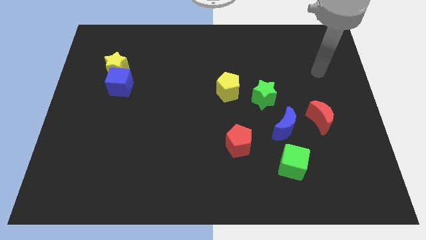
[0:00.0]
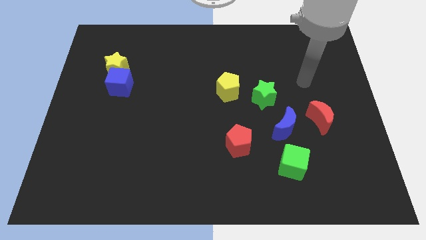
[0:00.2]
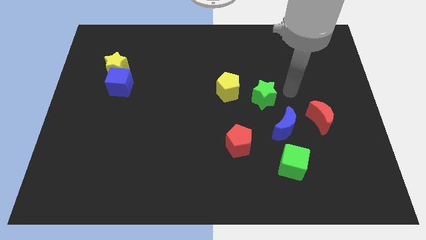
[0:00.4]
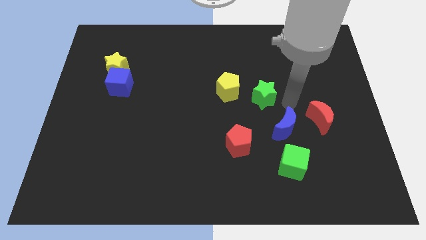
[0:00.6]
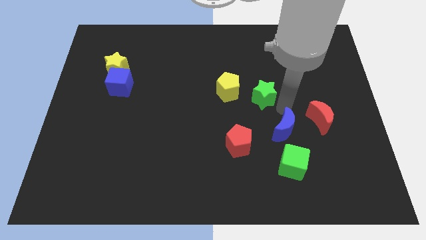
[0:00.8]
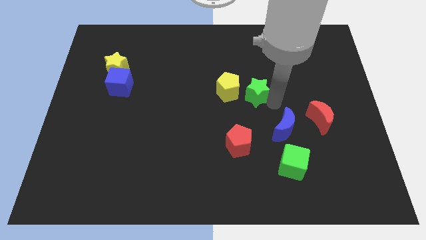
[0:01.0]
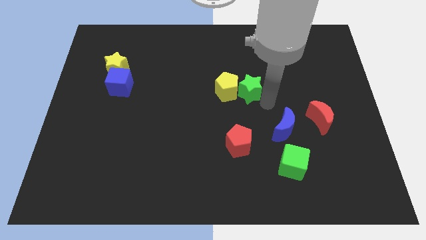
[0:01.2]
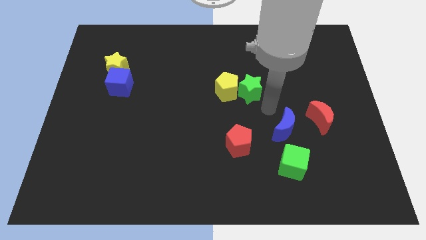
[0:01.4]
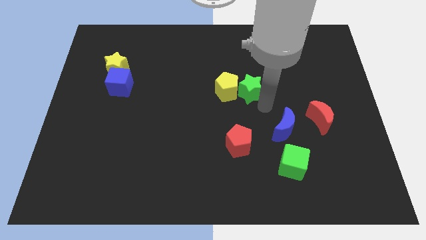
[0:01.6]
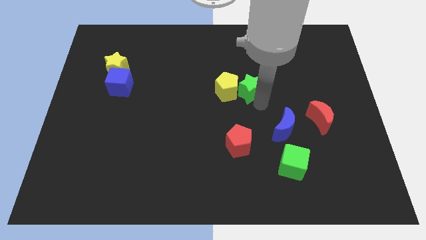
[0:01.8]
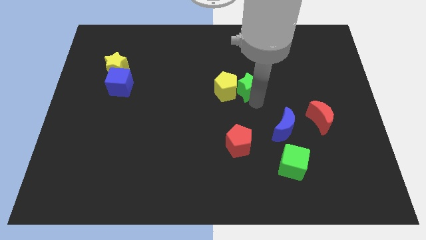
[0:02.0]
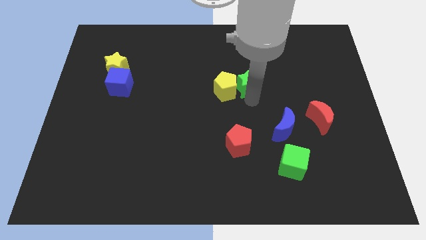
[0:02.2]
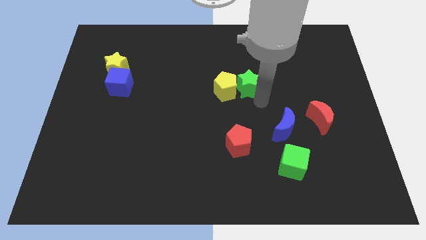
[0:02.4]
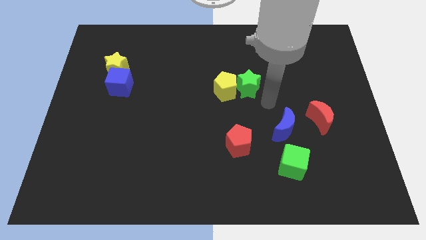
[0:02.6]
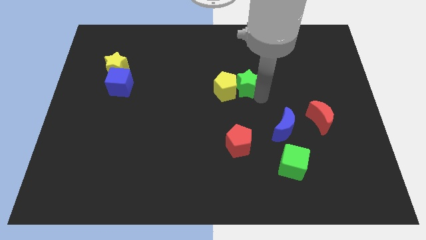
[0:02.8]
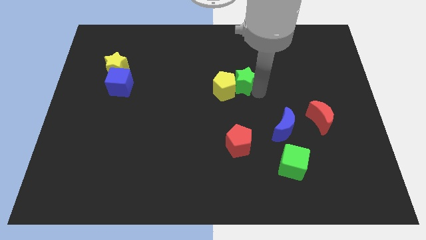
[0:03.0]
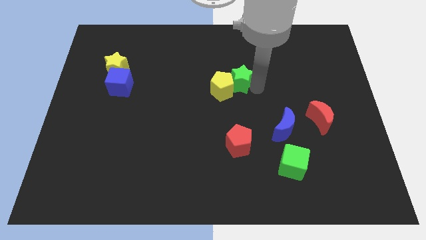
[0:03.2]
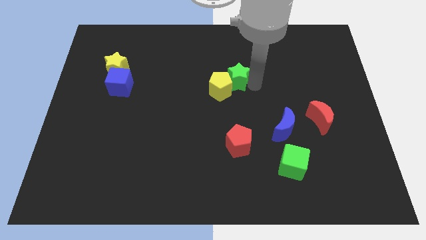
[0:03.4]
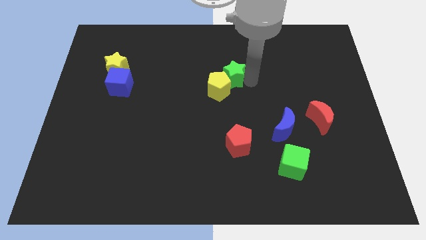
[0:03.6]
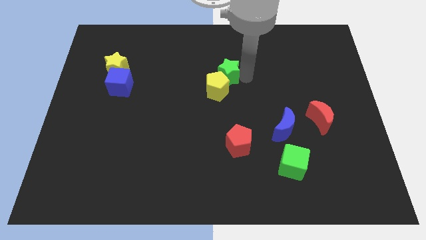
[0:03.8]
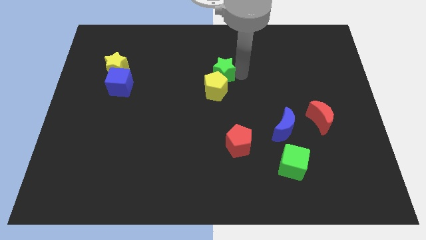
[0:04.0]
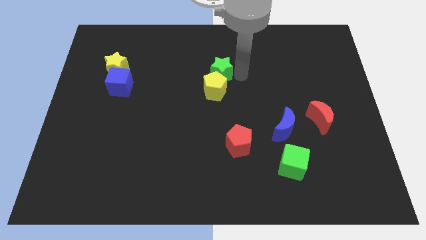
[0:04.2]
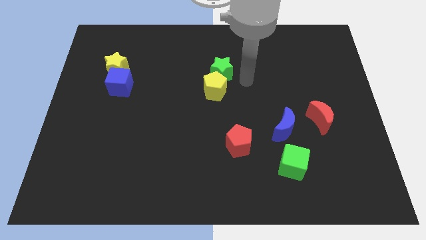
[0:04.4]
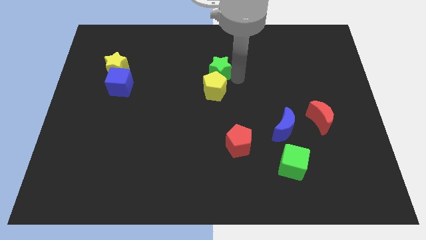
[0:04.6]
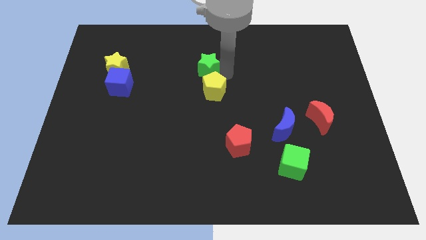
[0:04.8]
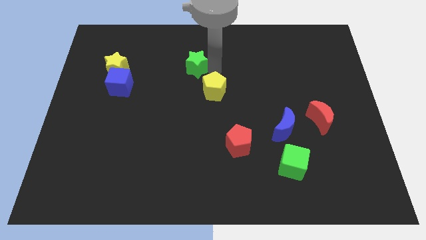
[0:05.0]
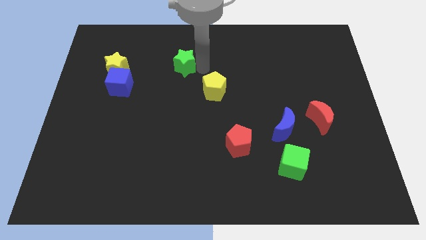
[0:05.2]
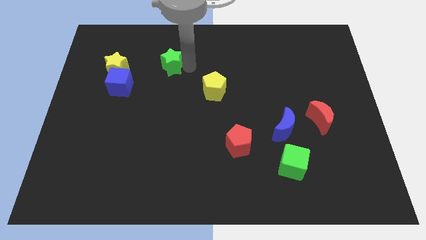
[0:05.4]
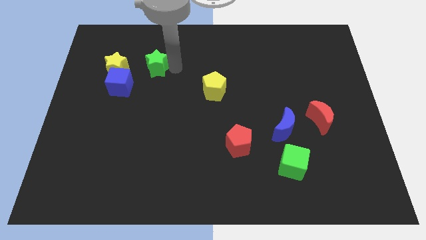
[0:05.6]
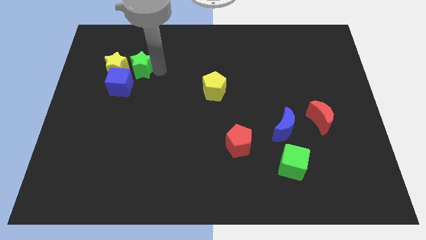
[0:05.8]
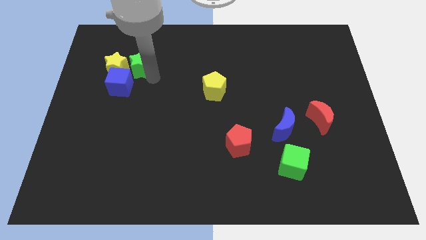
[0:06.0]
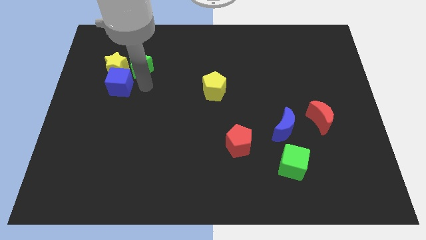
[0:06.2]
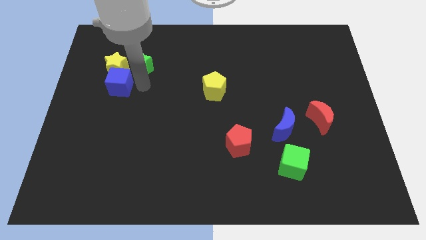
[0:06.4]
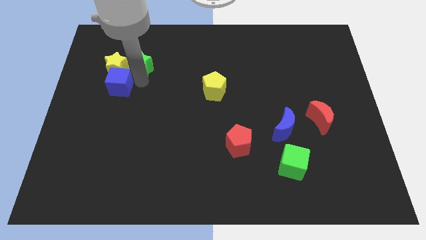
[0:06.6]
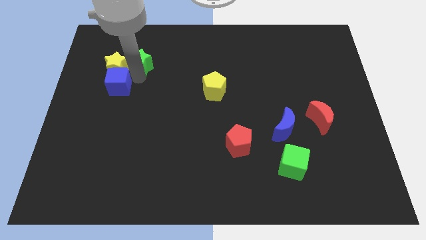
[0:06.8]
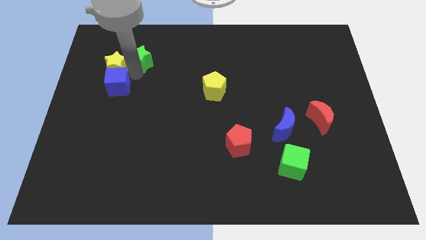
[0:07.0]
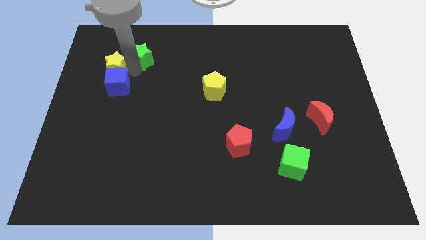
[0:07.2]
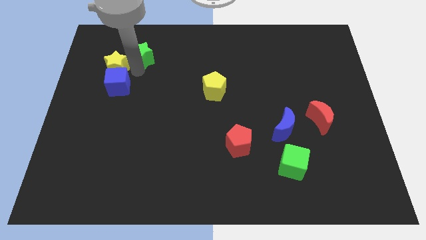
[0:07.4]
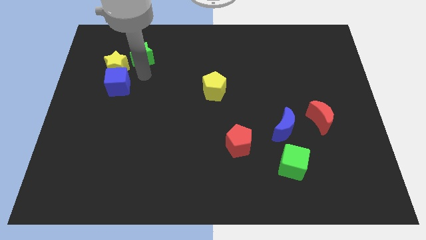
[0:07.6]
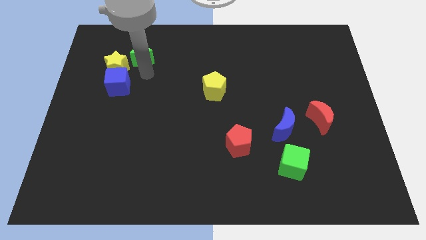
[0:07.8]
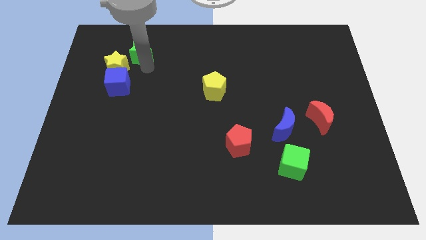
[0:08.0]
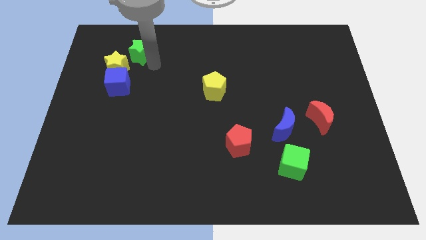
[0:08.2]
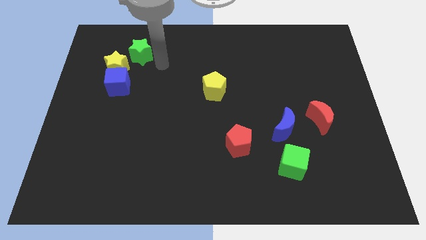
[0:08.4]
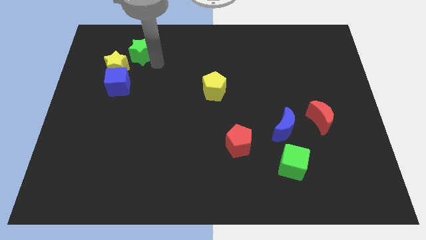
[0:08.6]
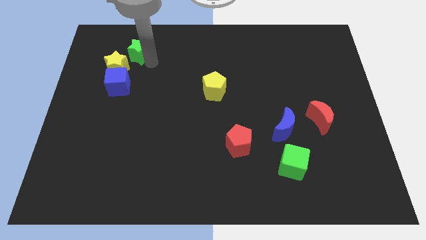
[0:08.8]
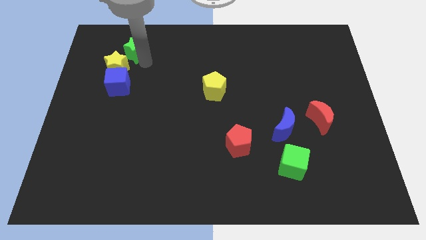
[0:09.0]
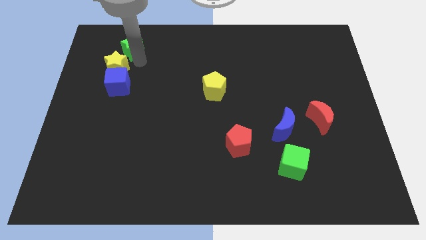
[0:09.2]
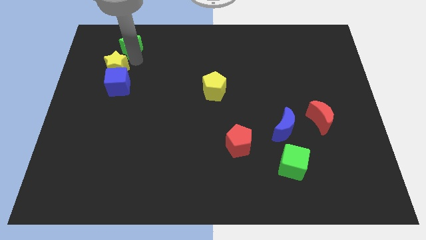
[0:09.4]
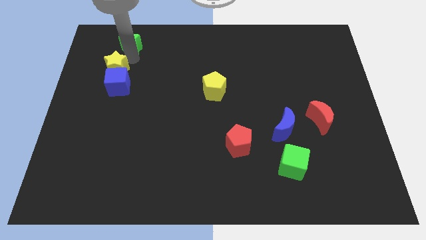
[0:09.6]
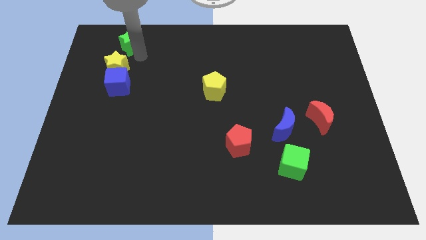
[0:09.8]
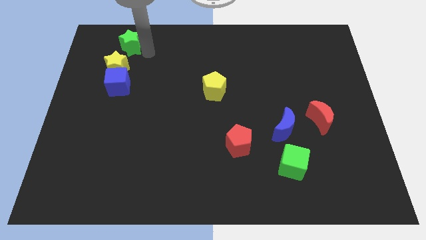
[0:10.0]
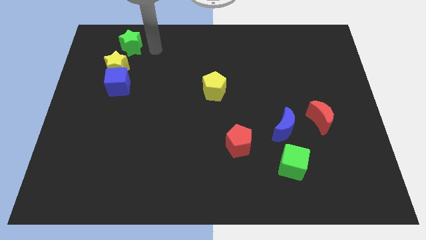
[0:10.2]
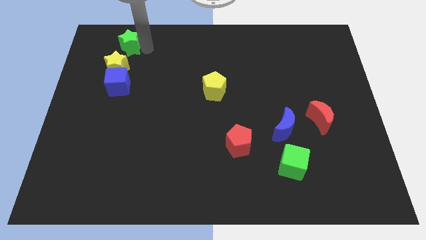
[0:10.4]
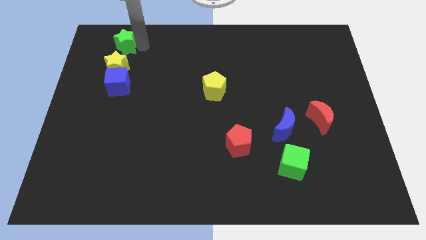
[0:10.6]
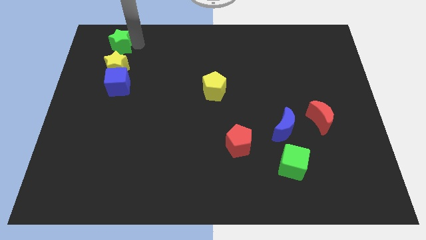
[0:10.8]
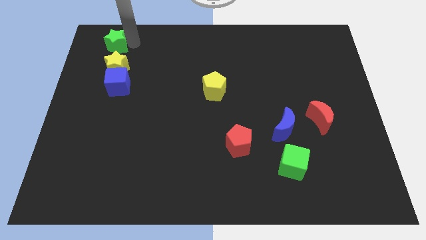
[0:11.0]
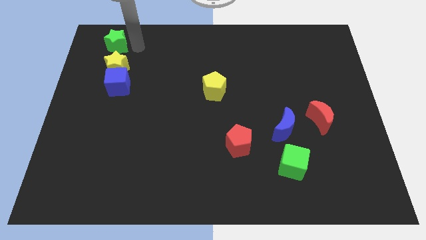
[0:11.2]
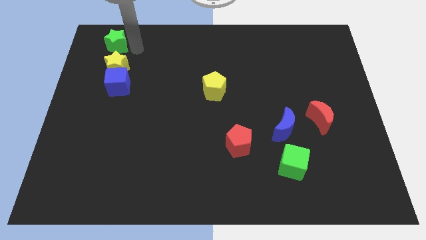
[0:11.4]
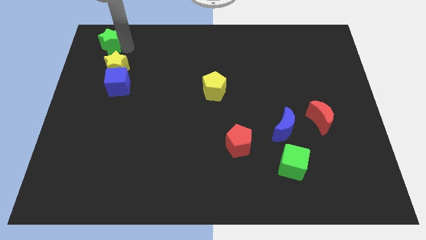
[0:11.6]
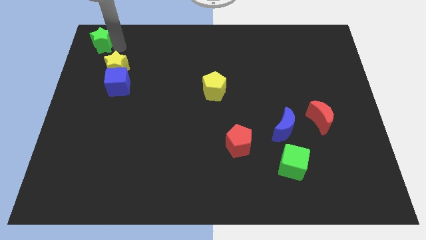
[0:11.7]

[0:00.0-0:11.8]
push the green star to the top left
